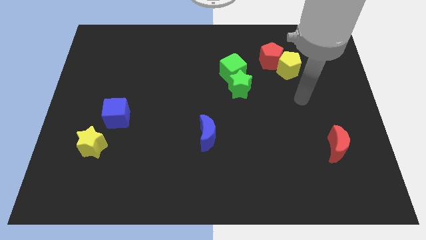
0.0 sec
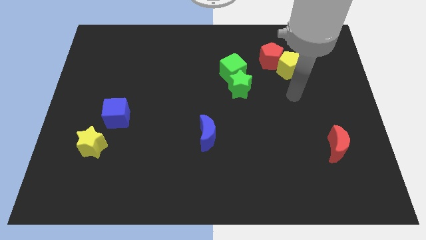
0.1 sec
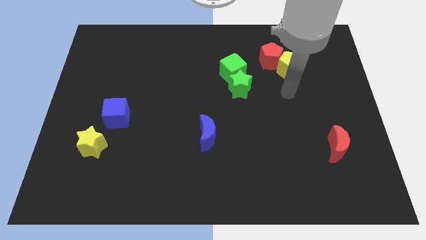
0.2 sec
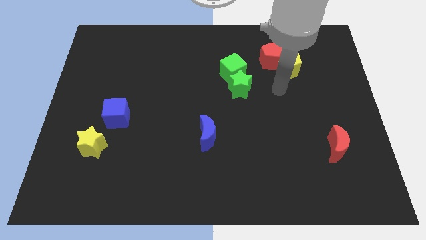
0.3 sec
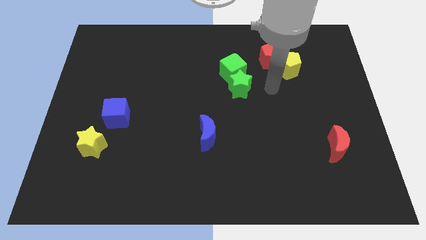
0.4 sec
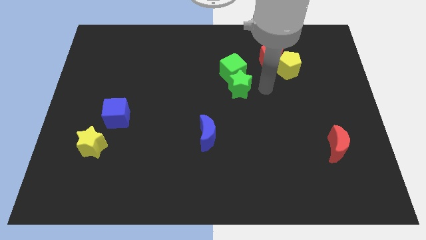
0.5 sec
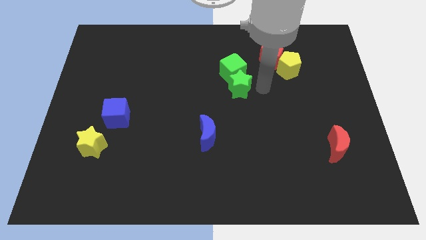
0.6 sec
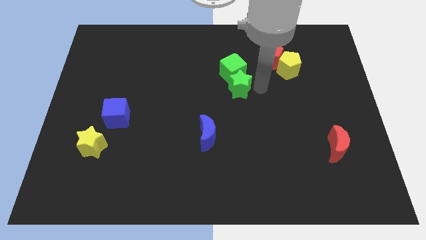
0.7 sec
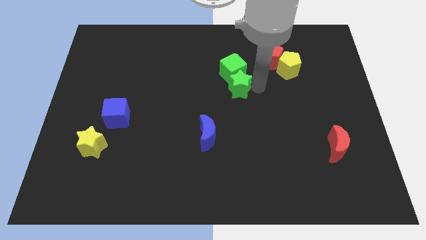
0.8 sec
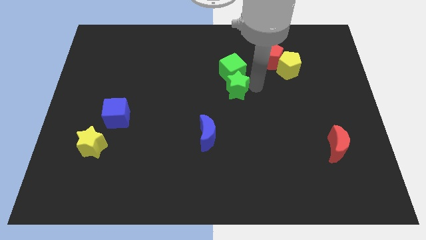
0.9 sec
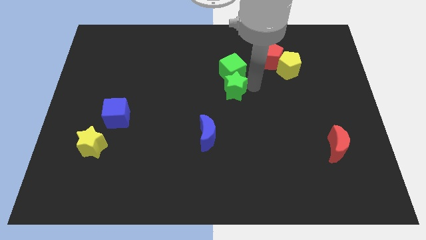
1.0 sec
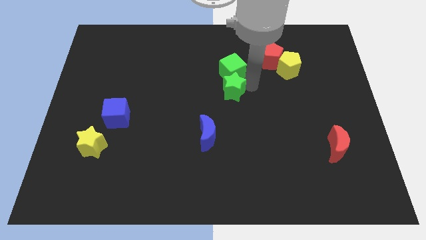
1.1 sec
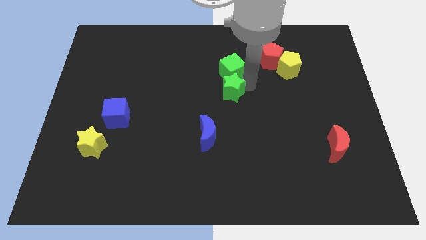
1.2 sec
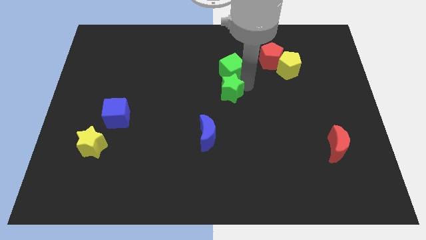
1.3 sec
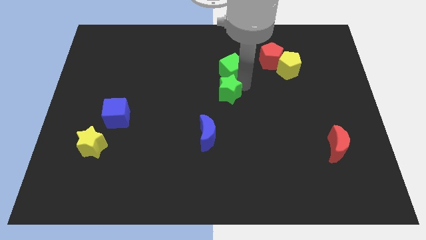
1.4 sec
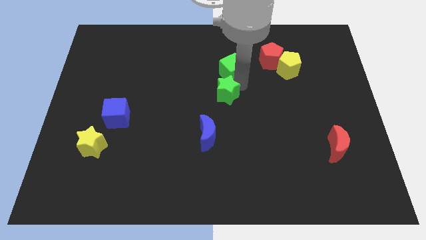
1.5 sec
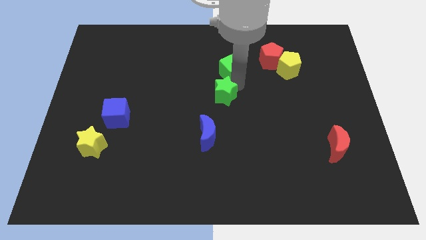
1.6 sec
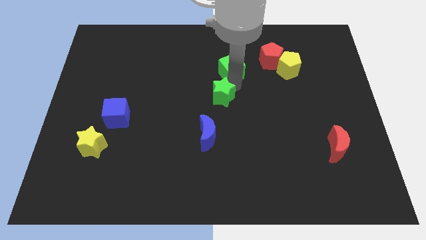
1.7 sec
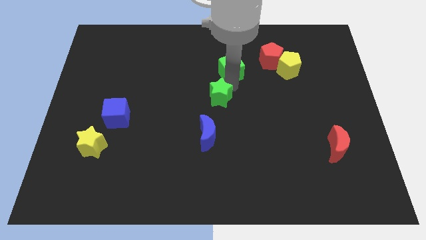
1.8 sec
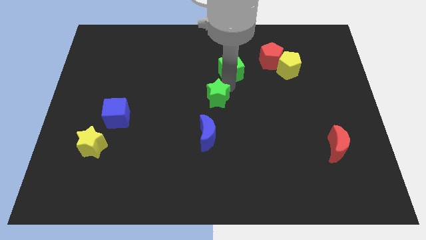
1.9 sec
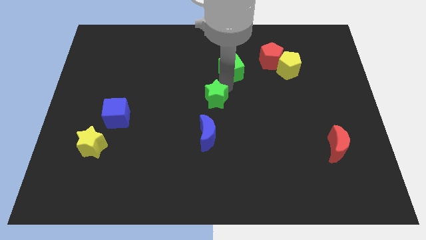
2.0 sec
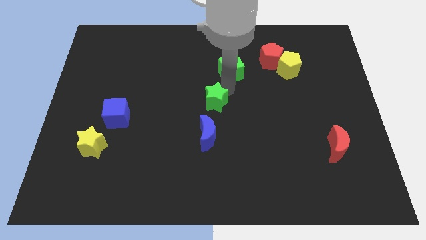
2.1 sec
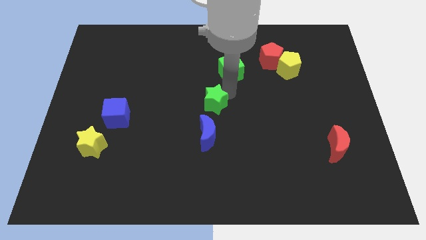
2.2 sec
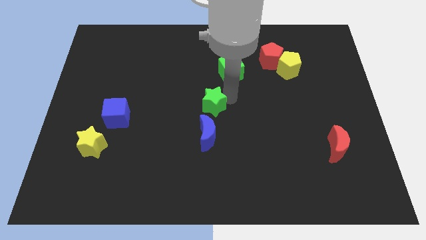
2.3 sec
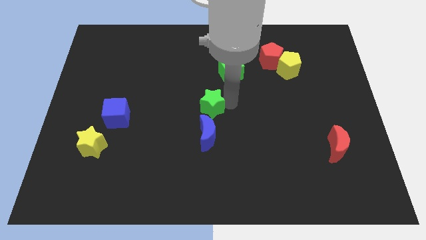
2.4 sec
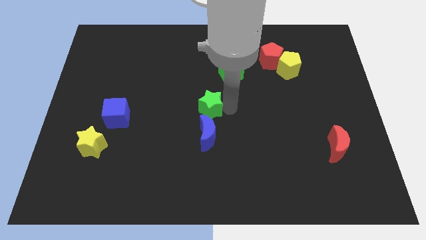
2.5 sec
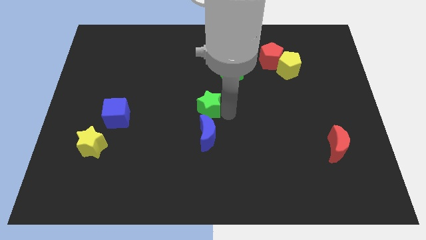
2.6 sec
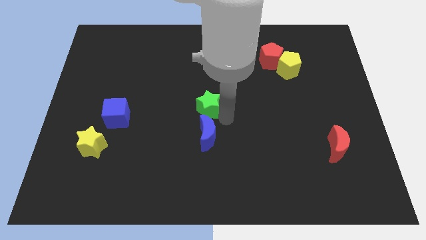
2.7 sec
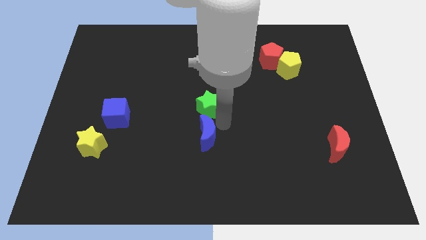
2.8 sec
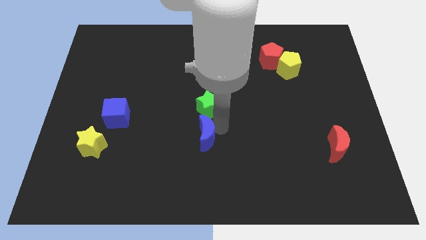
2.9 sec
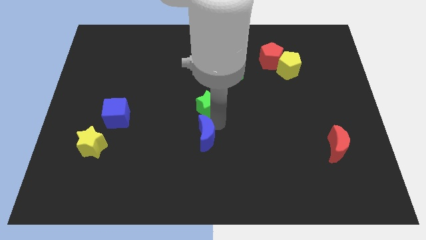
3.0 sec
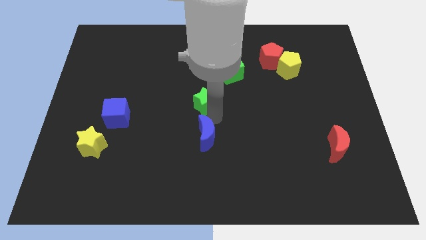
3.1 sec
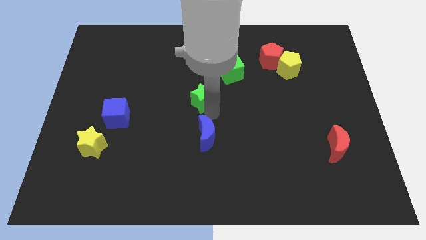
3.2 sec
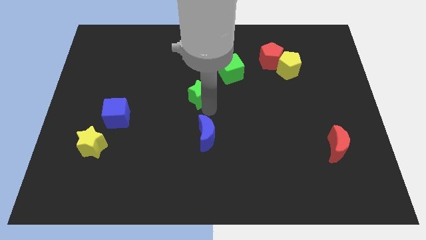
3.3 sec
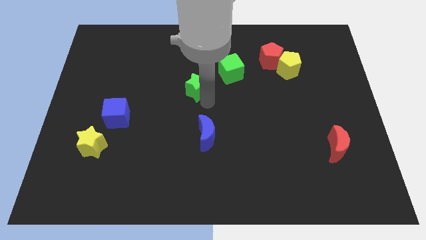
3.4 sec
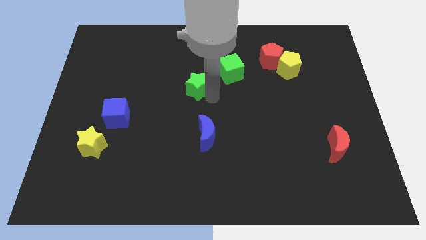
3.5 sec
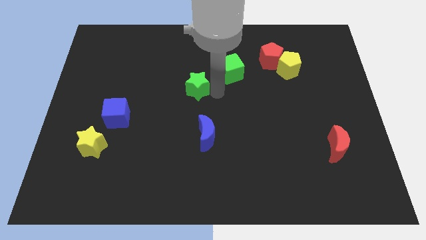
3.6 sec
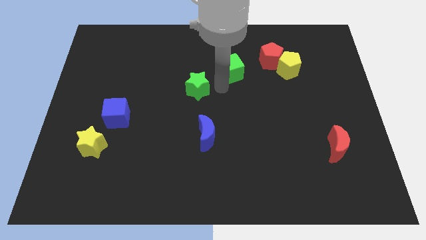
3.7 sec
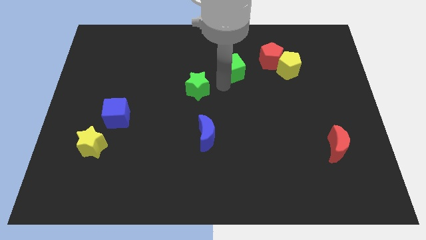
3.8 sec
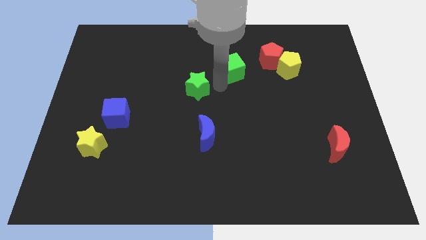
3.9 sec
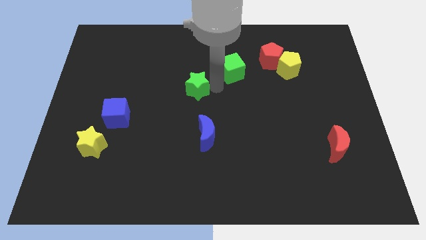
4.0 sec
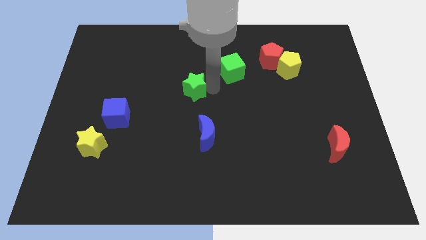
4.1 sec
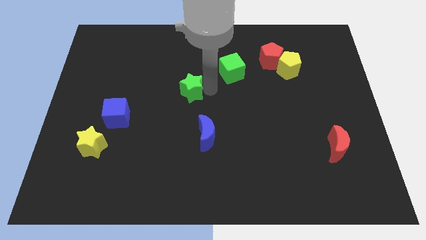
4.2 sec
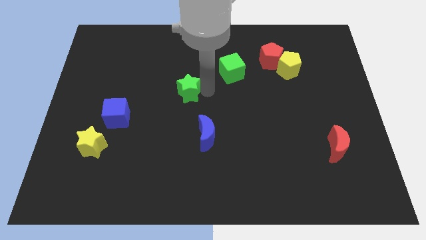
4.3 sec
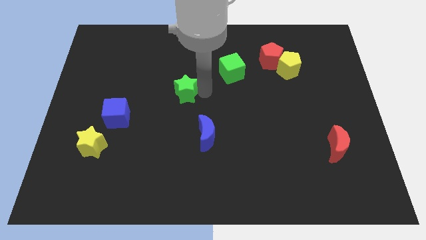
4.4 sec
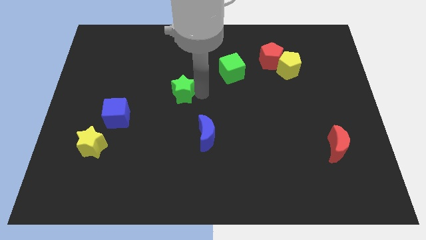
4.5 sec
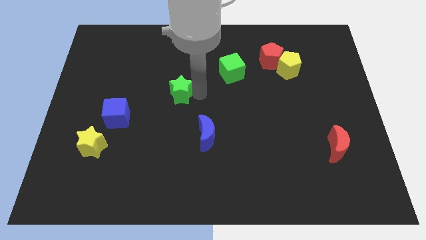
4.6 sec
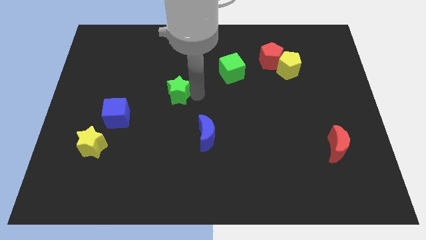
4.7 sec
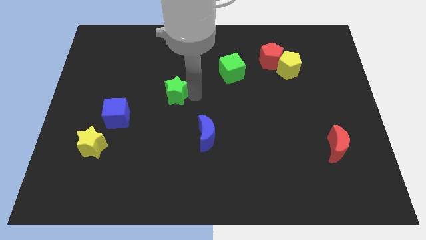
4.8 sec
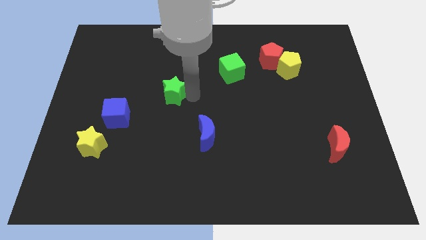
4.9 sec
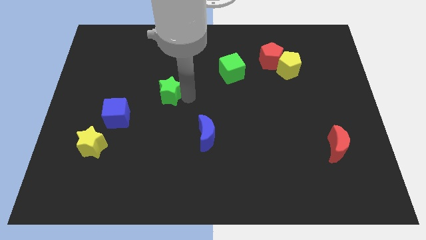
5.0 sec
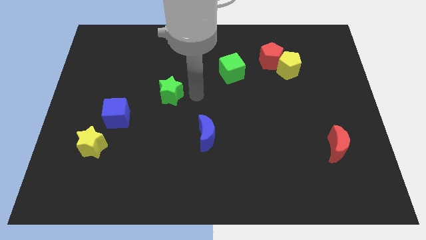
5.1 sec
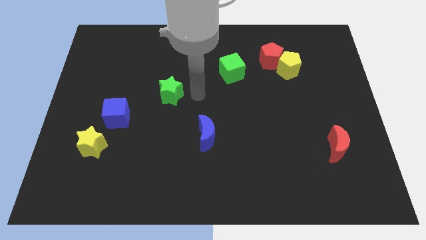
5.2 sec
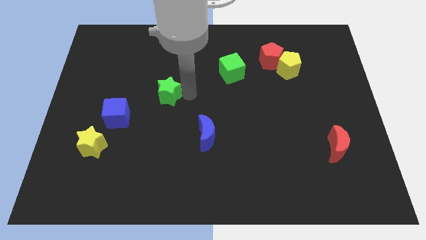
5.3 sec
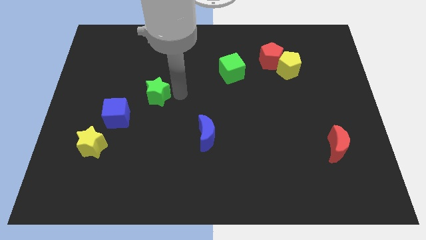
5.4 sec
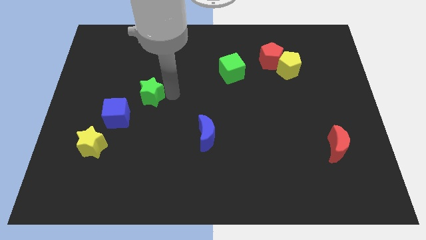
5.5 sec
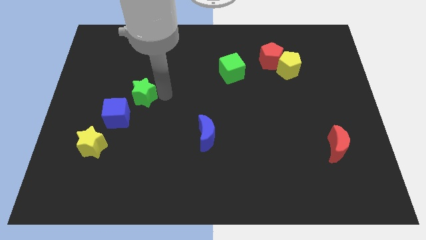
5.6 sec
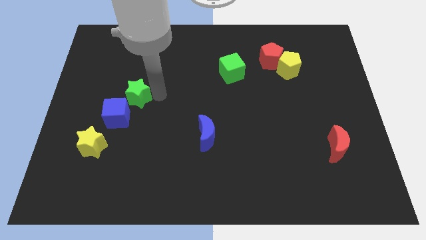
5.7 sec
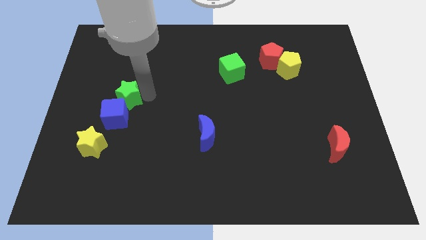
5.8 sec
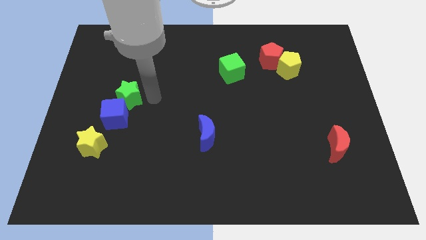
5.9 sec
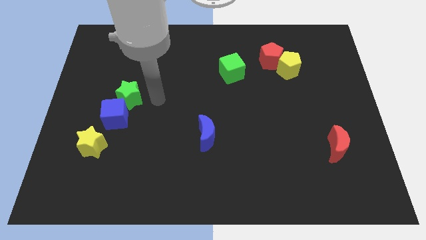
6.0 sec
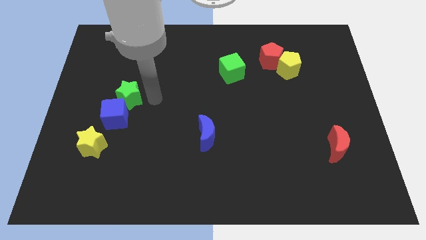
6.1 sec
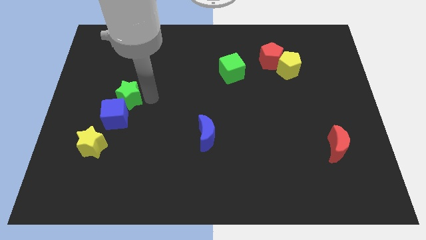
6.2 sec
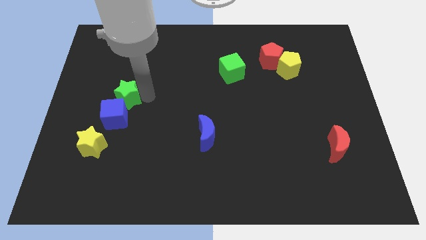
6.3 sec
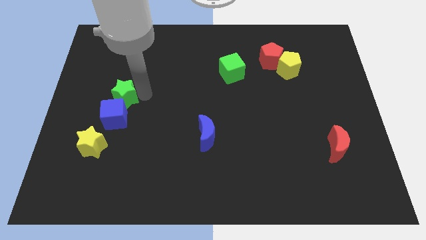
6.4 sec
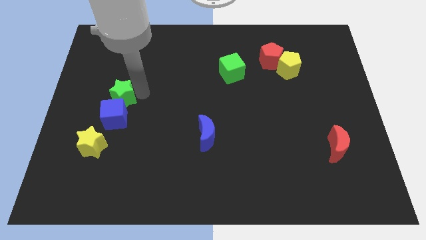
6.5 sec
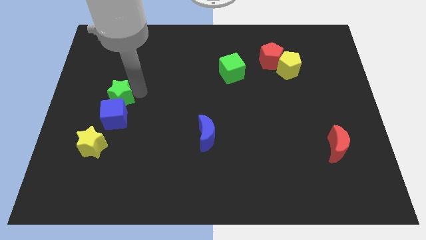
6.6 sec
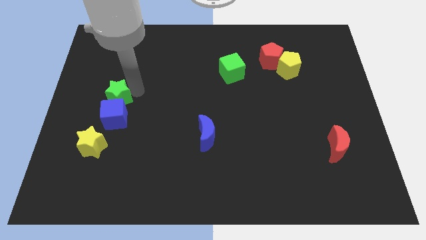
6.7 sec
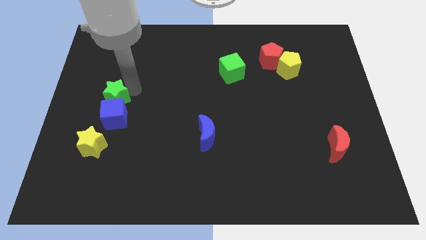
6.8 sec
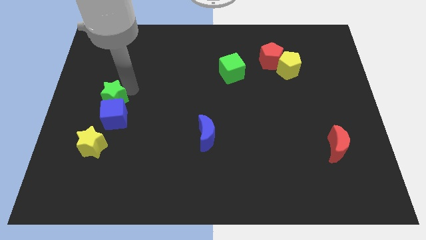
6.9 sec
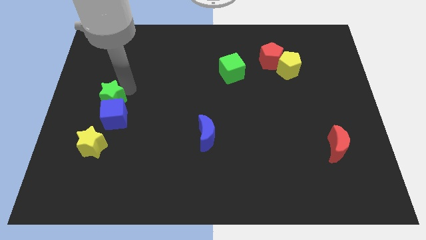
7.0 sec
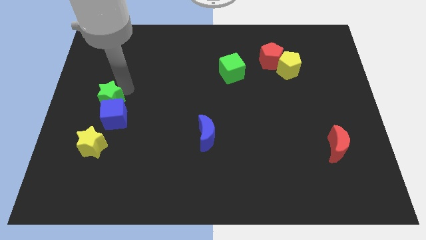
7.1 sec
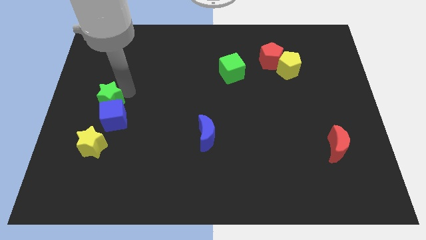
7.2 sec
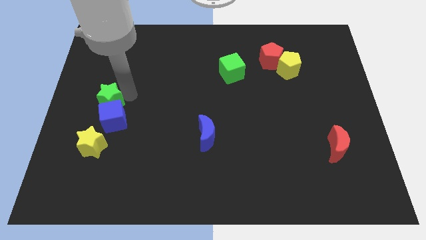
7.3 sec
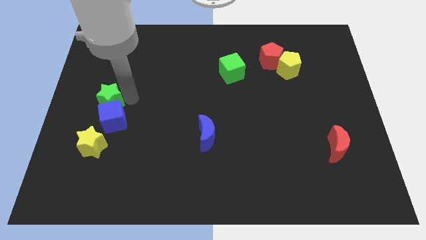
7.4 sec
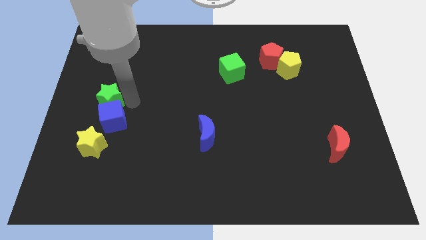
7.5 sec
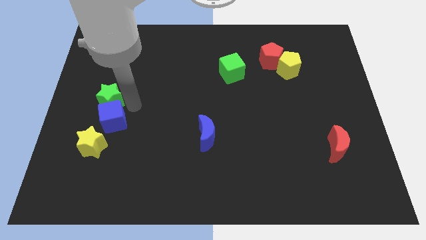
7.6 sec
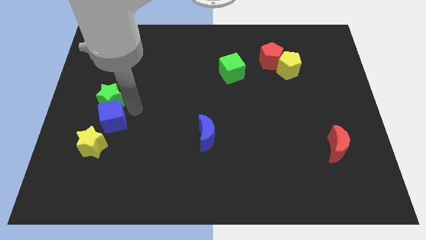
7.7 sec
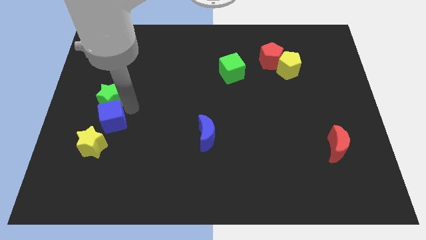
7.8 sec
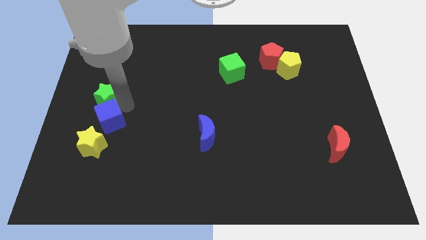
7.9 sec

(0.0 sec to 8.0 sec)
put the green star to the left side
